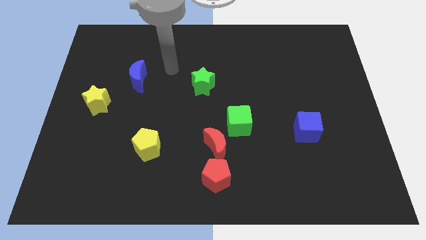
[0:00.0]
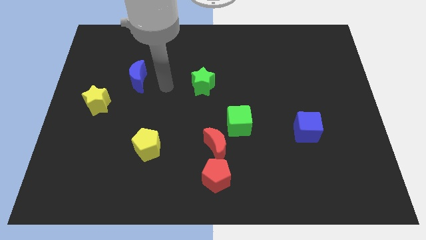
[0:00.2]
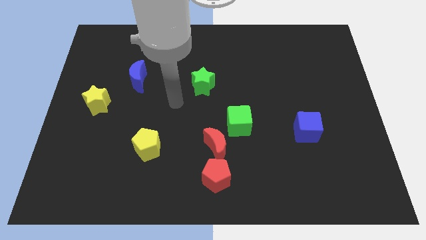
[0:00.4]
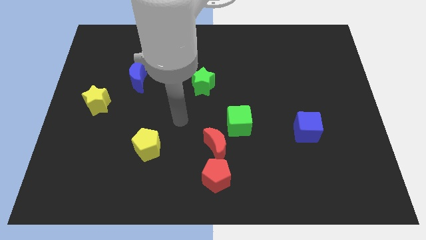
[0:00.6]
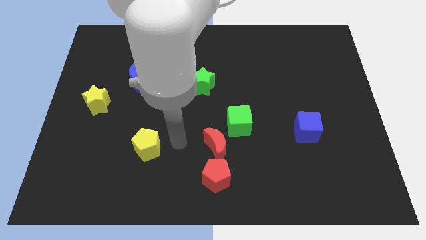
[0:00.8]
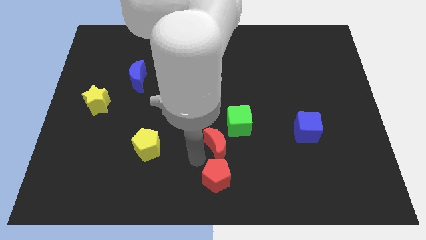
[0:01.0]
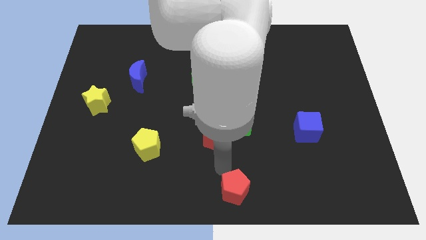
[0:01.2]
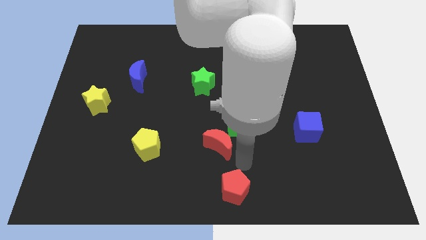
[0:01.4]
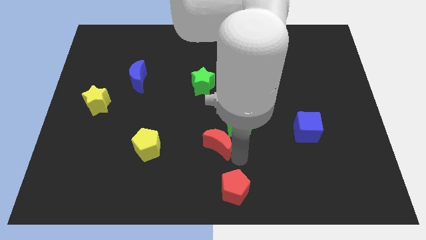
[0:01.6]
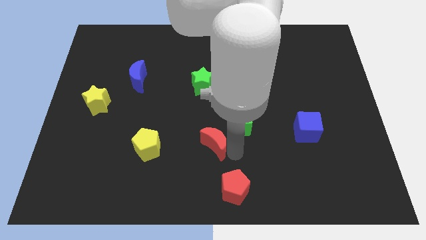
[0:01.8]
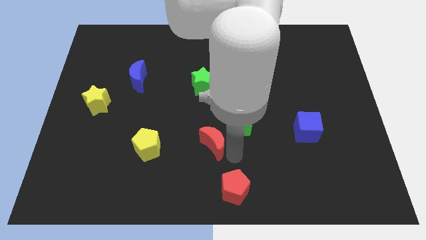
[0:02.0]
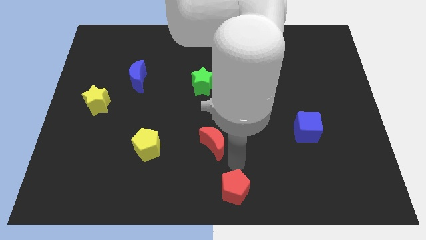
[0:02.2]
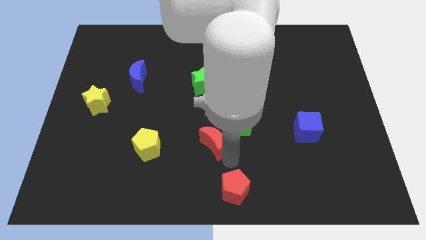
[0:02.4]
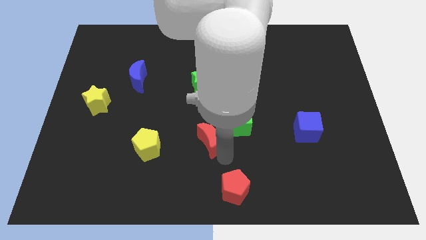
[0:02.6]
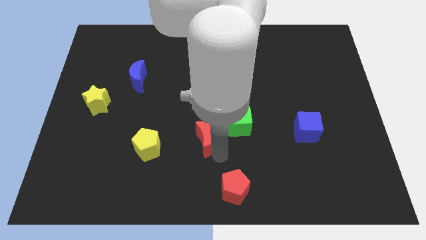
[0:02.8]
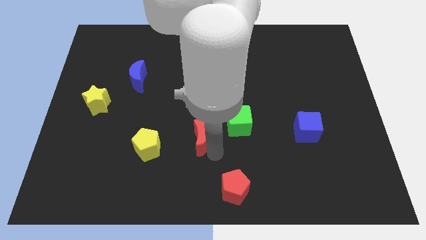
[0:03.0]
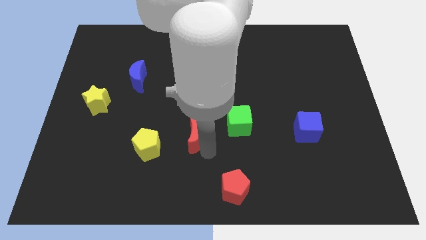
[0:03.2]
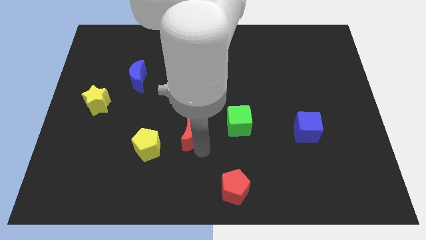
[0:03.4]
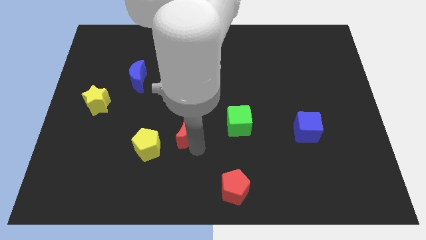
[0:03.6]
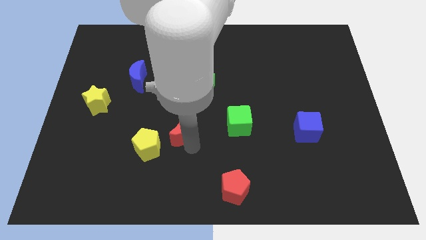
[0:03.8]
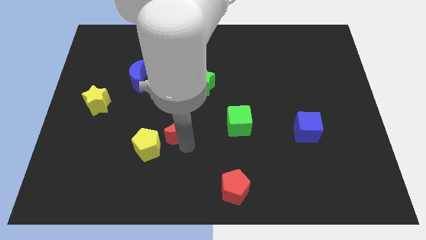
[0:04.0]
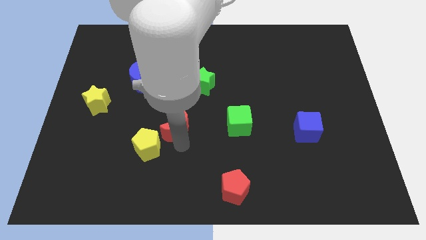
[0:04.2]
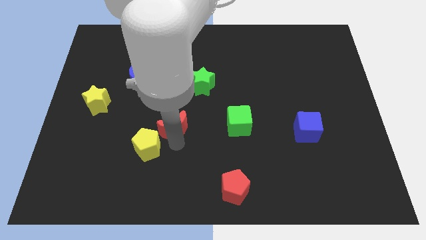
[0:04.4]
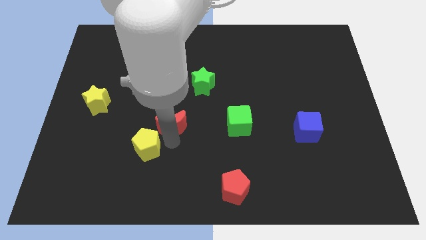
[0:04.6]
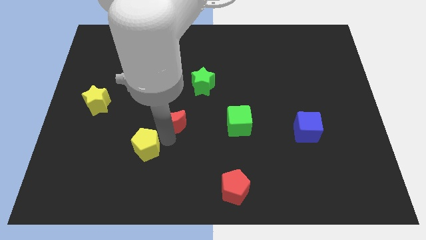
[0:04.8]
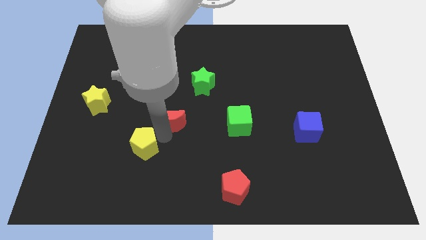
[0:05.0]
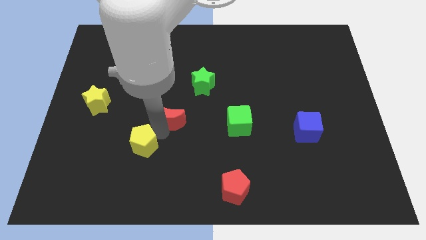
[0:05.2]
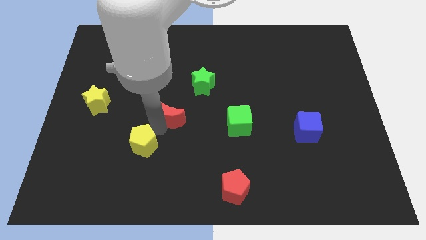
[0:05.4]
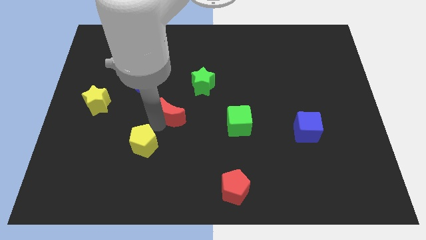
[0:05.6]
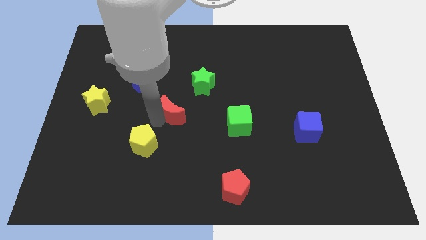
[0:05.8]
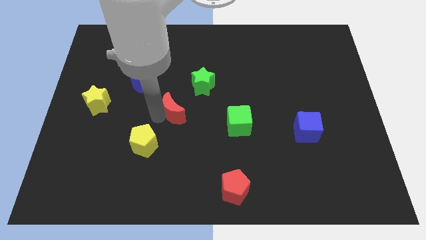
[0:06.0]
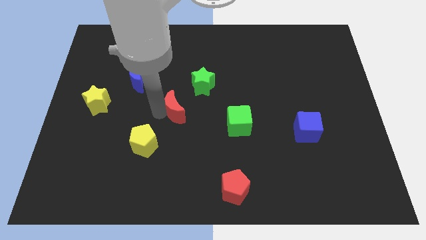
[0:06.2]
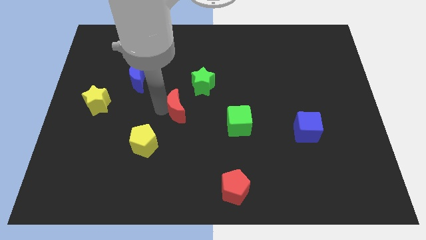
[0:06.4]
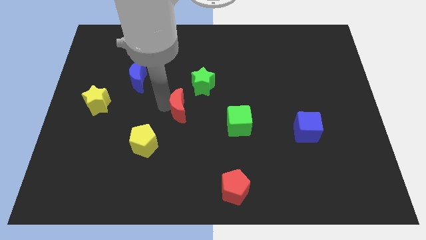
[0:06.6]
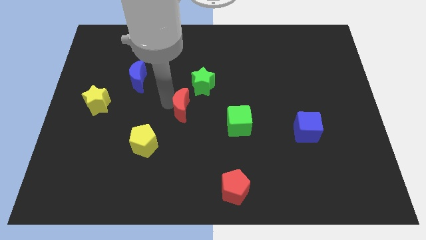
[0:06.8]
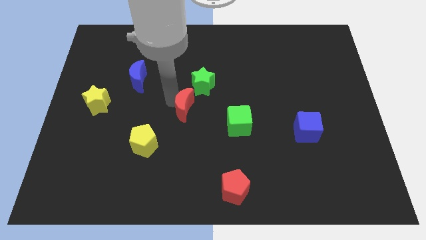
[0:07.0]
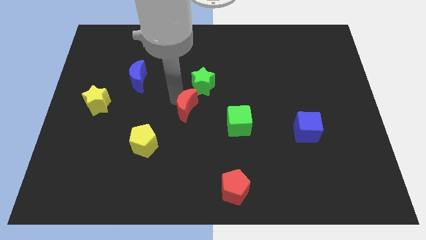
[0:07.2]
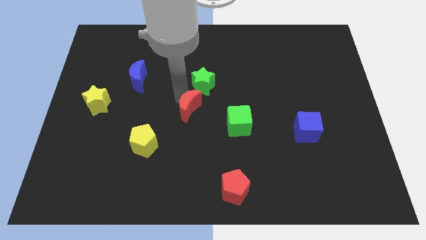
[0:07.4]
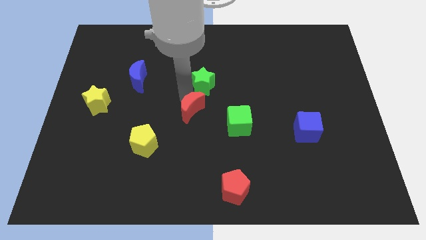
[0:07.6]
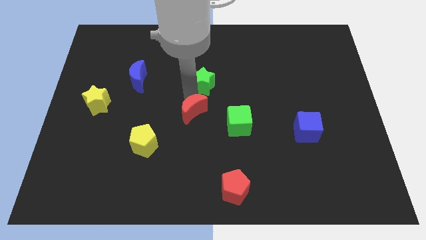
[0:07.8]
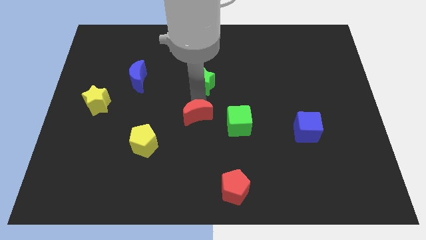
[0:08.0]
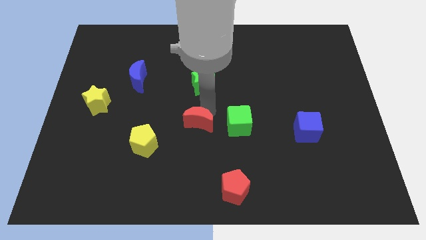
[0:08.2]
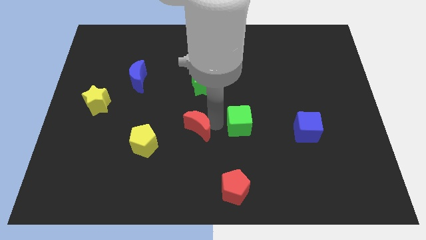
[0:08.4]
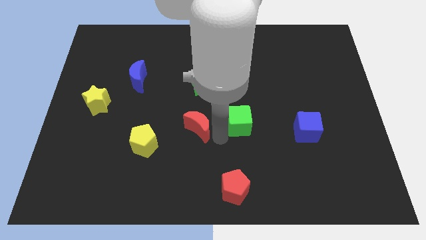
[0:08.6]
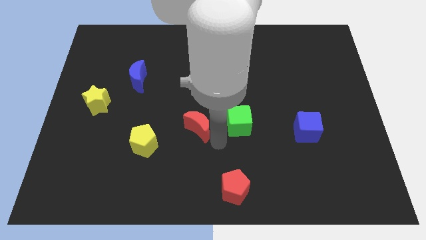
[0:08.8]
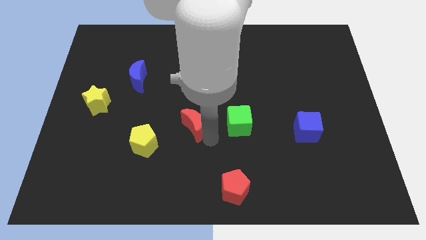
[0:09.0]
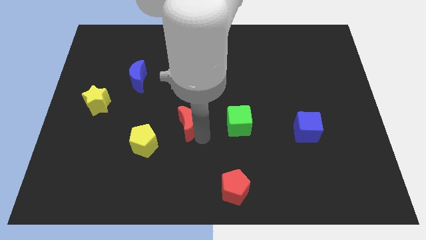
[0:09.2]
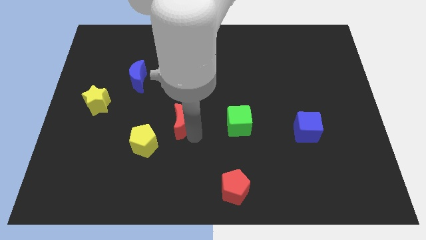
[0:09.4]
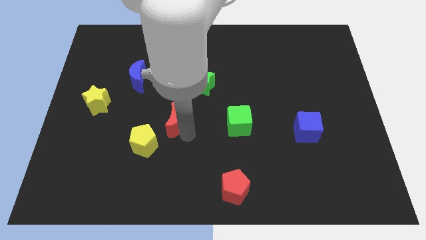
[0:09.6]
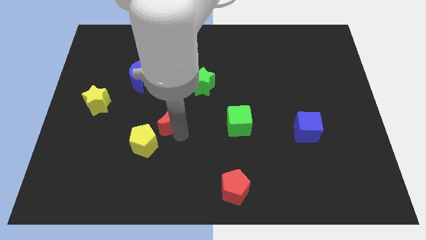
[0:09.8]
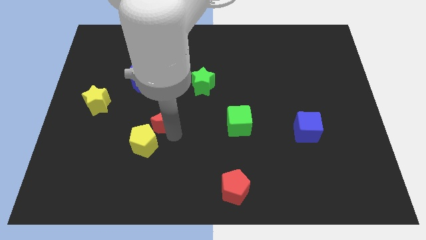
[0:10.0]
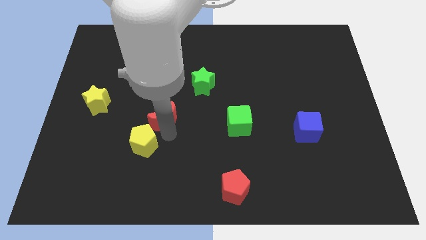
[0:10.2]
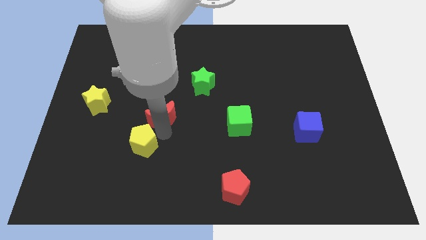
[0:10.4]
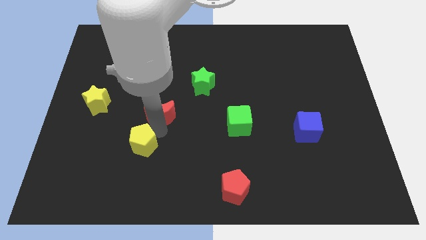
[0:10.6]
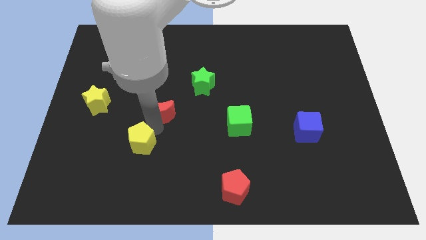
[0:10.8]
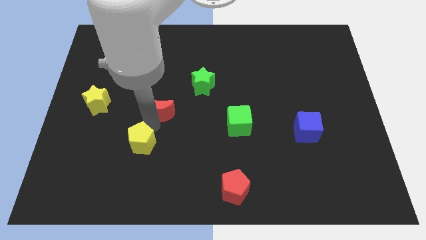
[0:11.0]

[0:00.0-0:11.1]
move the red moon to the bottom right side of the blue moon

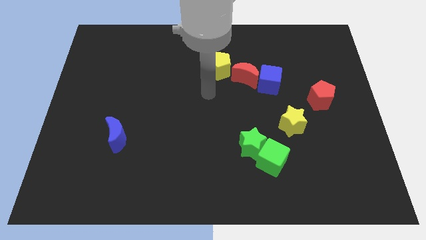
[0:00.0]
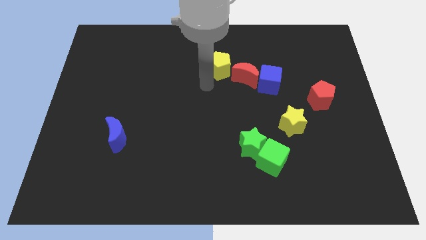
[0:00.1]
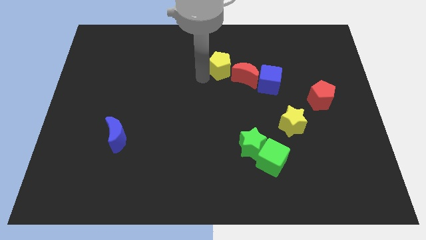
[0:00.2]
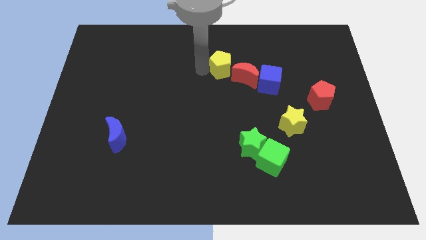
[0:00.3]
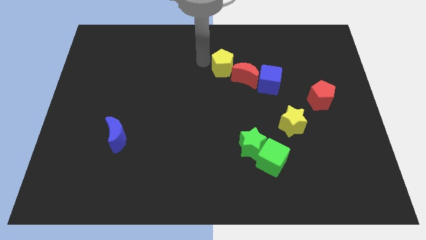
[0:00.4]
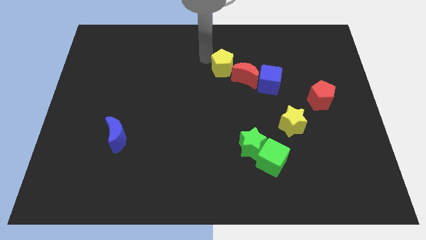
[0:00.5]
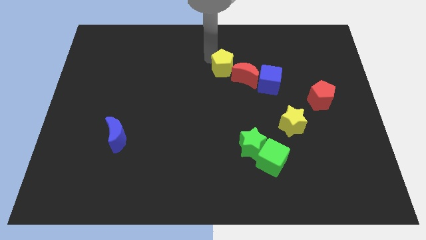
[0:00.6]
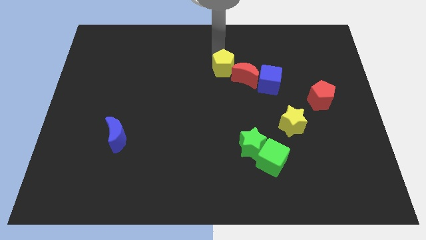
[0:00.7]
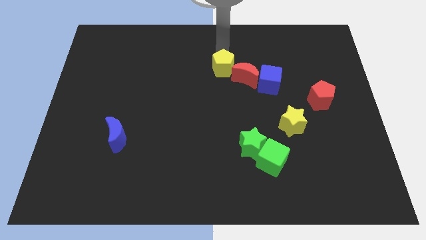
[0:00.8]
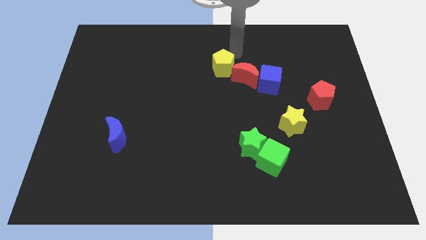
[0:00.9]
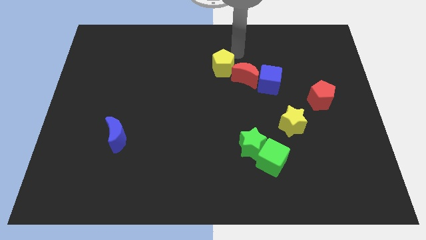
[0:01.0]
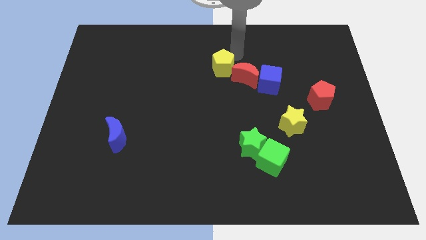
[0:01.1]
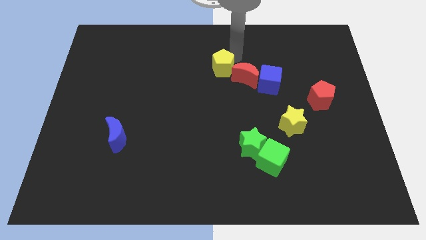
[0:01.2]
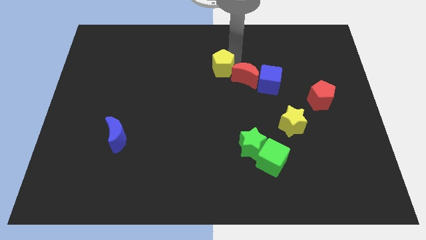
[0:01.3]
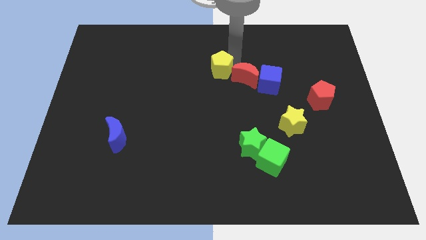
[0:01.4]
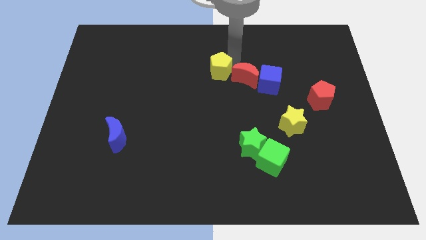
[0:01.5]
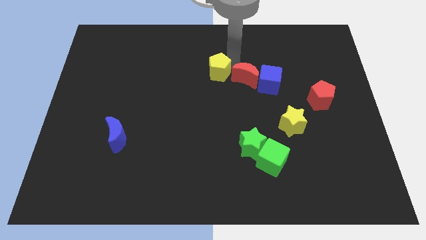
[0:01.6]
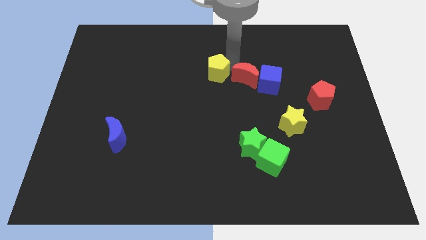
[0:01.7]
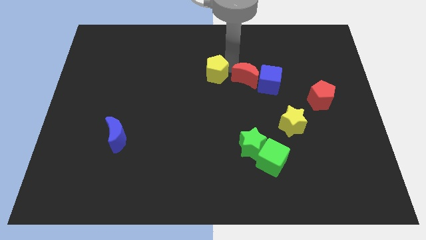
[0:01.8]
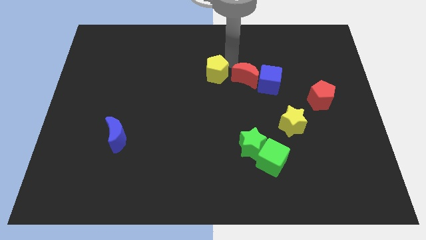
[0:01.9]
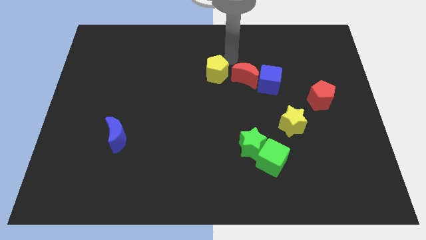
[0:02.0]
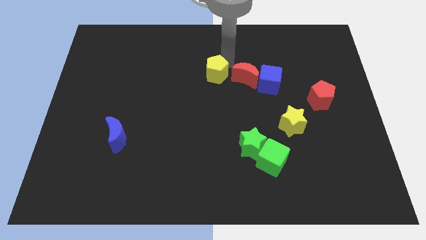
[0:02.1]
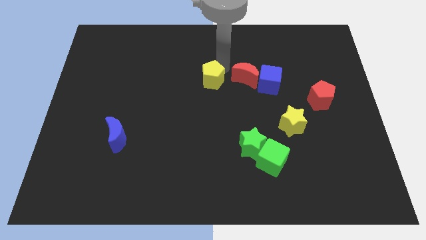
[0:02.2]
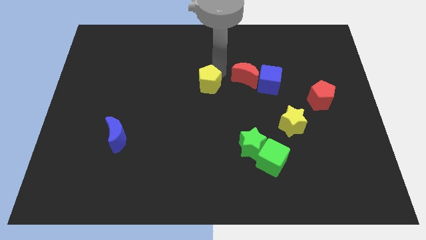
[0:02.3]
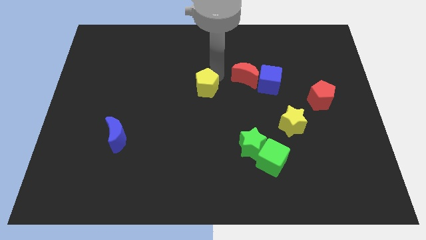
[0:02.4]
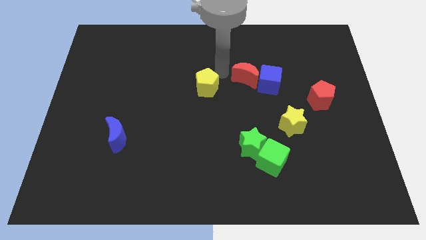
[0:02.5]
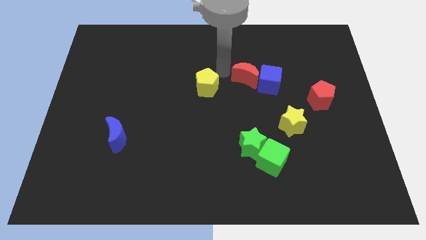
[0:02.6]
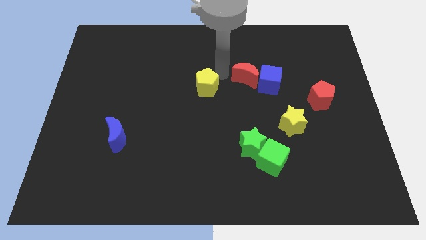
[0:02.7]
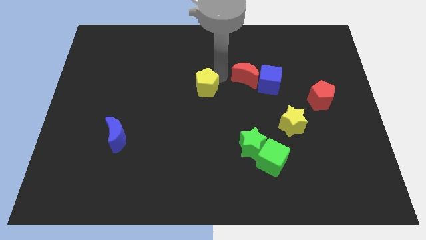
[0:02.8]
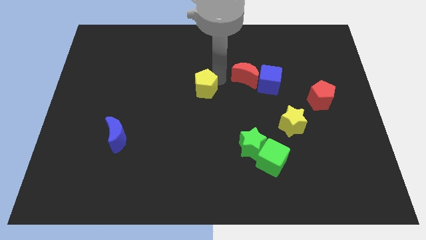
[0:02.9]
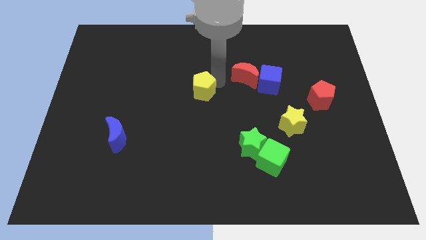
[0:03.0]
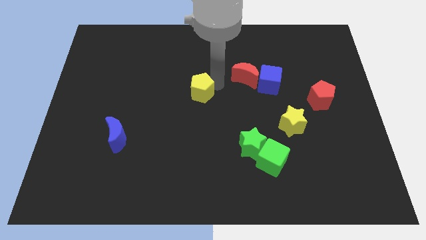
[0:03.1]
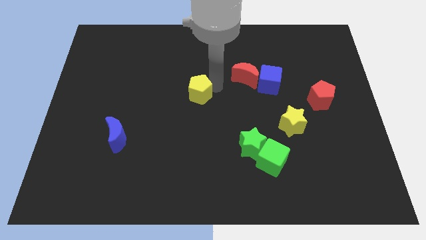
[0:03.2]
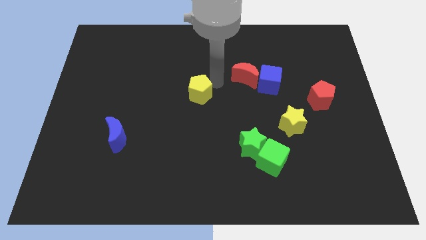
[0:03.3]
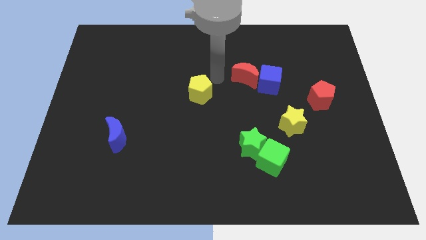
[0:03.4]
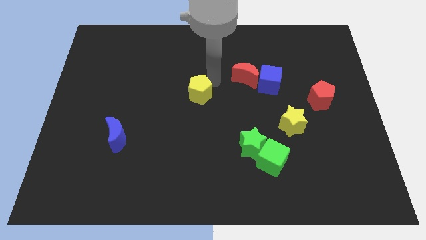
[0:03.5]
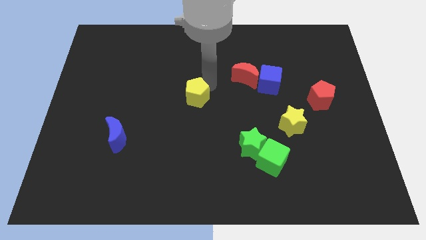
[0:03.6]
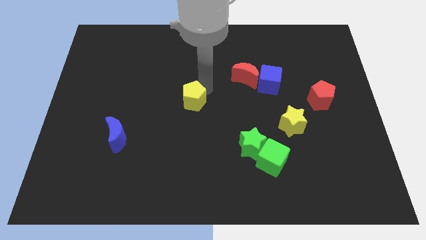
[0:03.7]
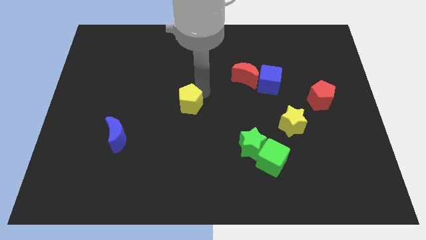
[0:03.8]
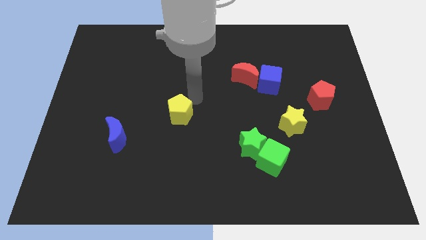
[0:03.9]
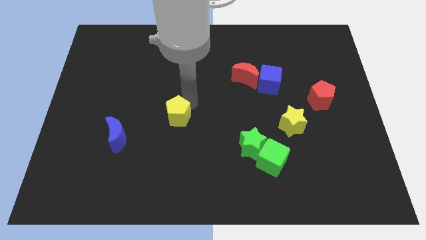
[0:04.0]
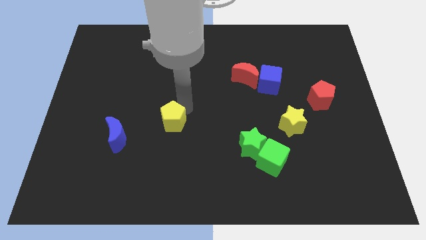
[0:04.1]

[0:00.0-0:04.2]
slide the yellow pentagon right of the blue moon
